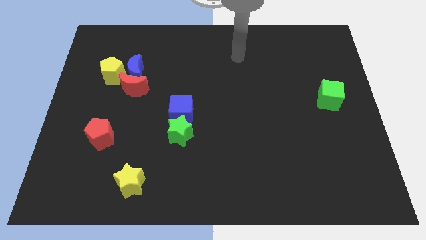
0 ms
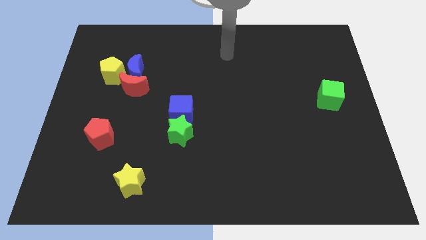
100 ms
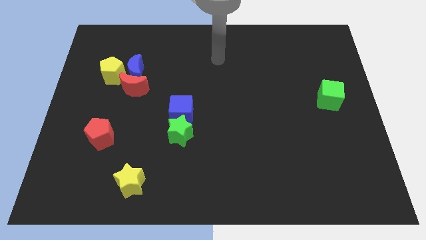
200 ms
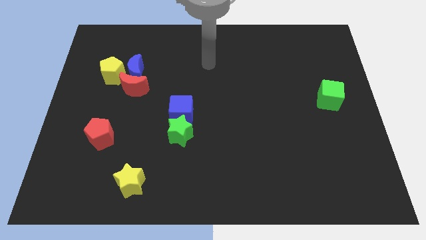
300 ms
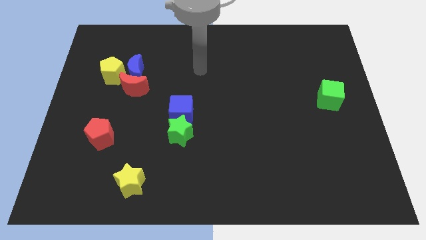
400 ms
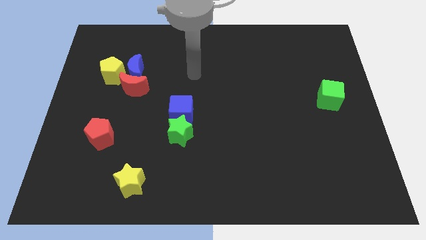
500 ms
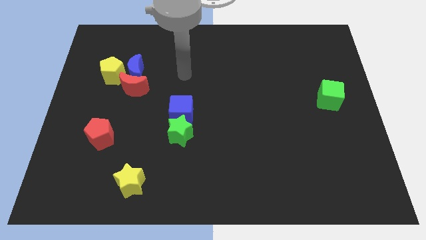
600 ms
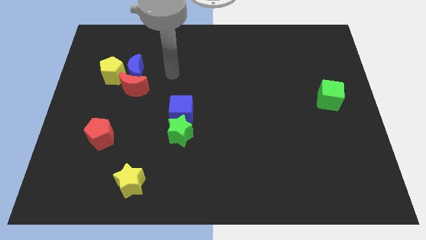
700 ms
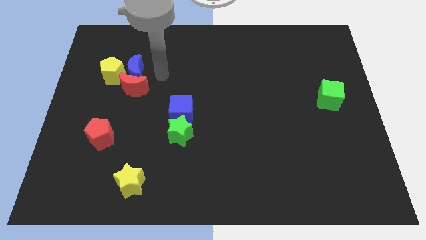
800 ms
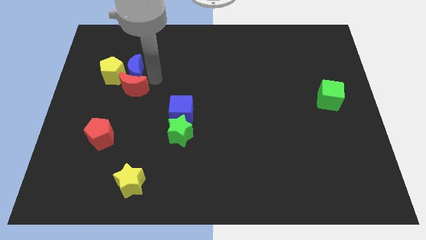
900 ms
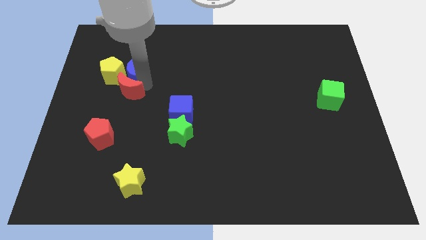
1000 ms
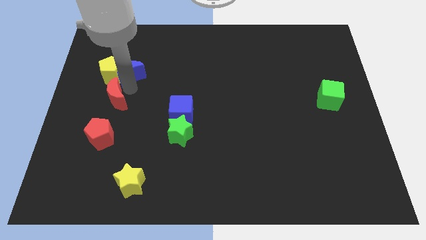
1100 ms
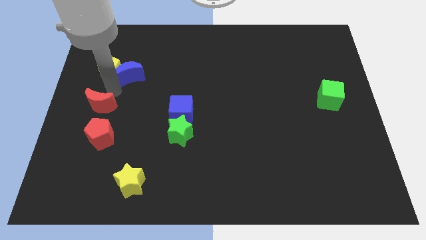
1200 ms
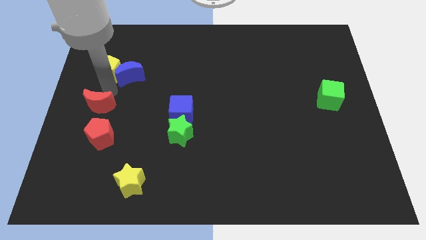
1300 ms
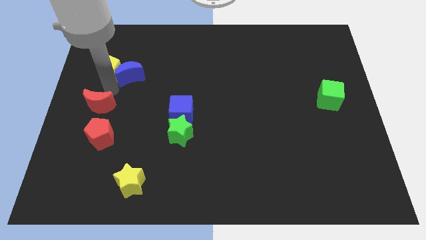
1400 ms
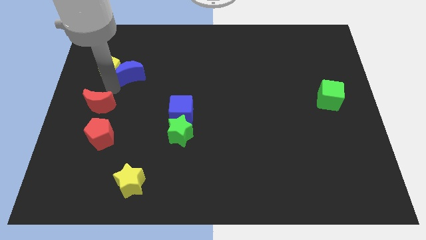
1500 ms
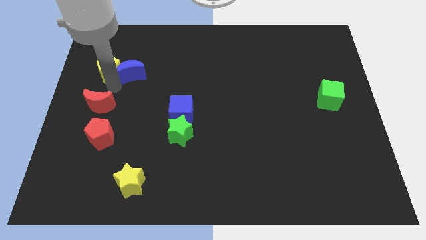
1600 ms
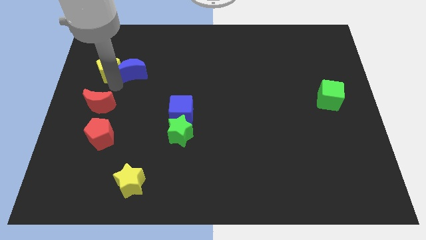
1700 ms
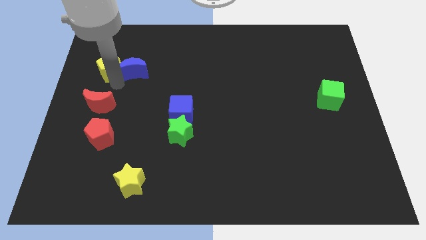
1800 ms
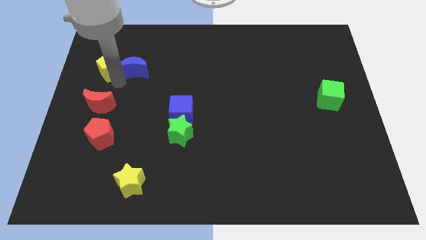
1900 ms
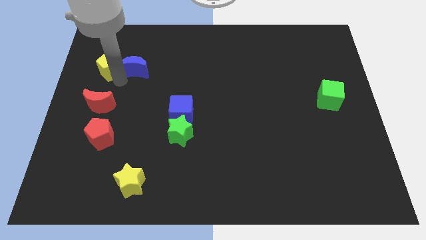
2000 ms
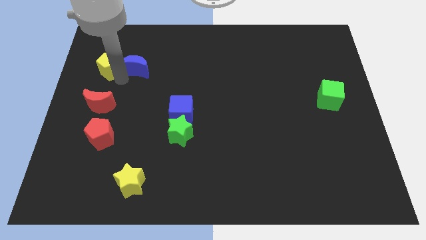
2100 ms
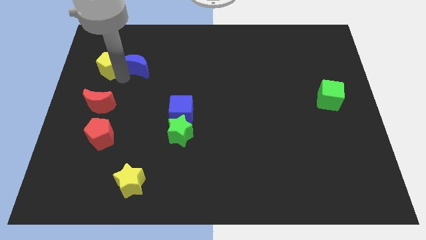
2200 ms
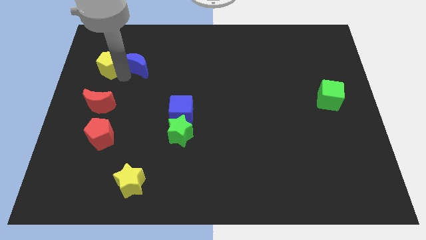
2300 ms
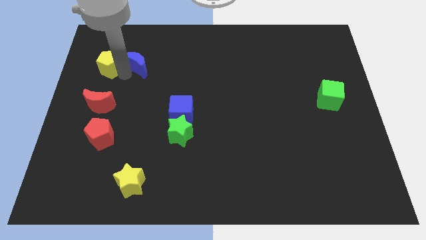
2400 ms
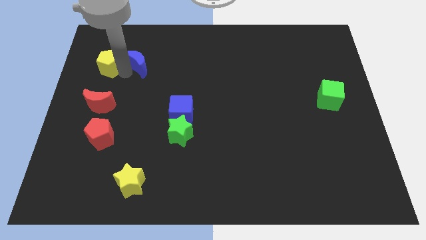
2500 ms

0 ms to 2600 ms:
move the blue moon away from the red moon and yellow pentagon

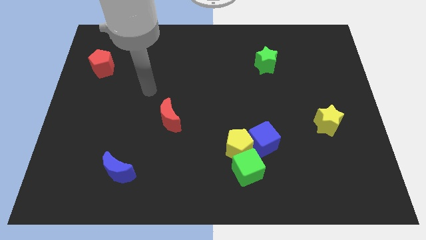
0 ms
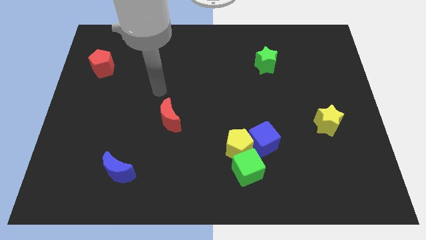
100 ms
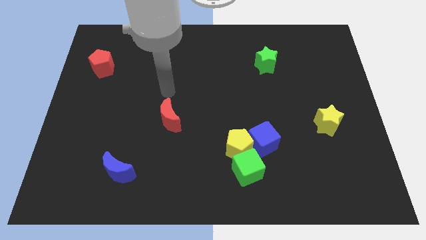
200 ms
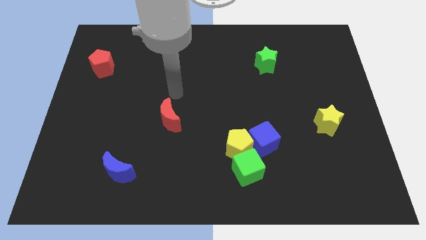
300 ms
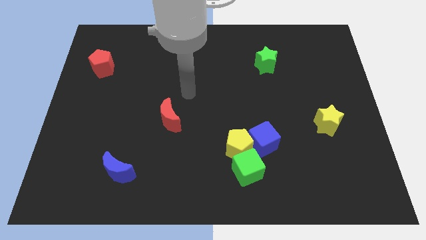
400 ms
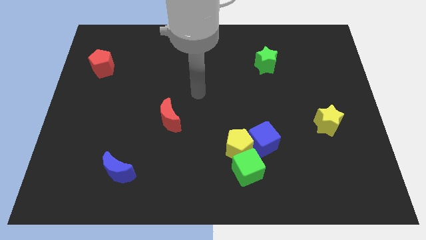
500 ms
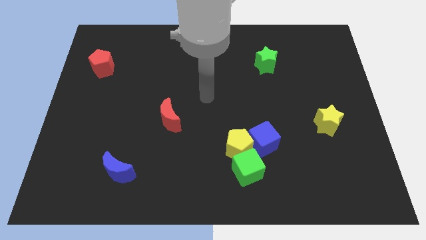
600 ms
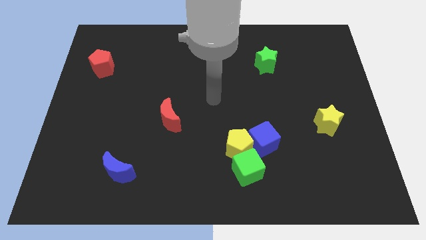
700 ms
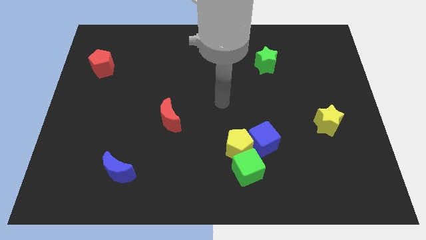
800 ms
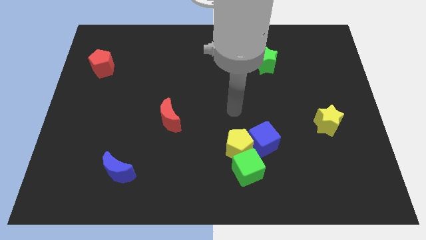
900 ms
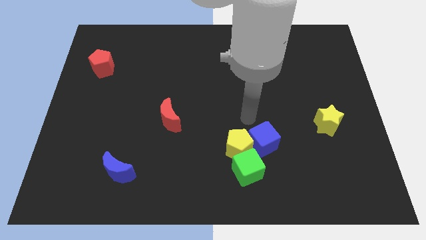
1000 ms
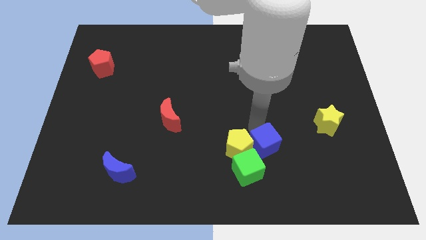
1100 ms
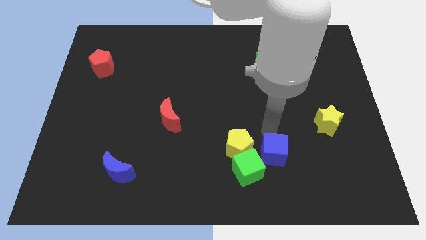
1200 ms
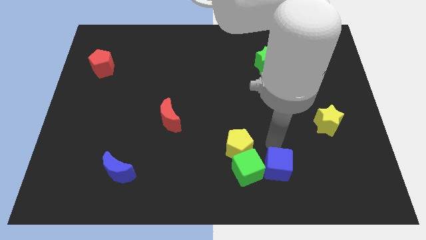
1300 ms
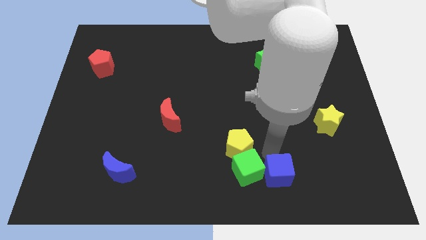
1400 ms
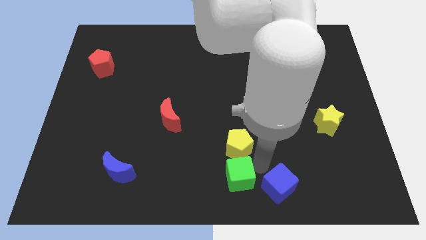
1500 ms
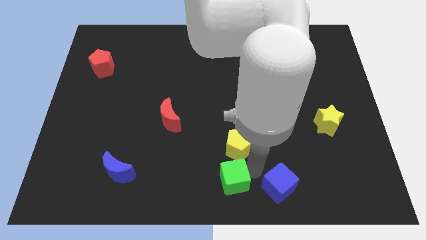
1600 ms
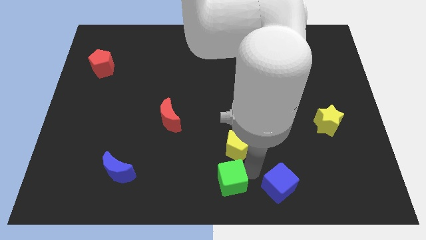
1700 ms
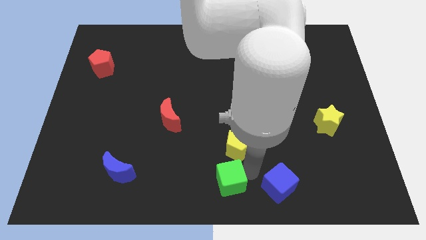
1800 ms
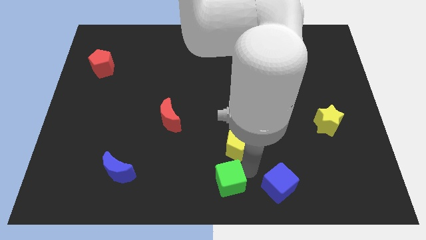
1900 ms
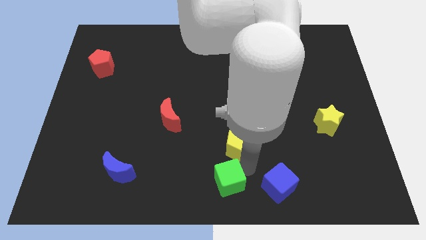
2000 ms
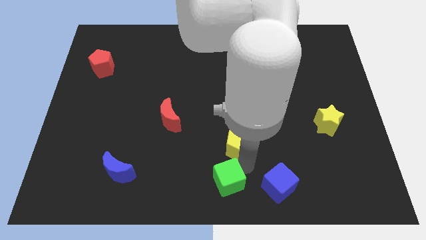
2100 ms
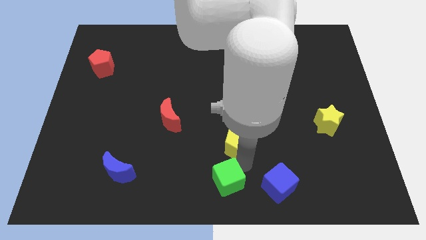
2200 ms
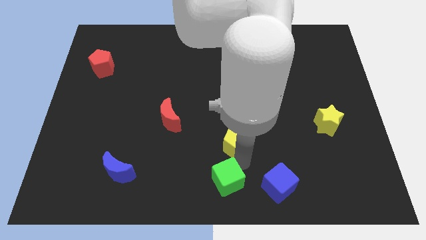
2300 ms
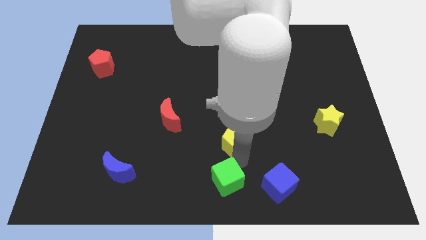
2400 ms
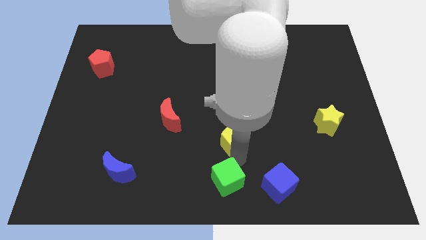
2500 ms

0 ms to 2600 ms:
pull the yellow pentagon apart from the green cube and blue cube

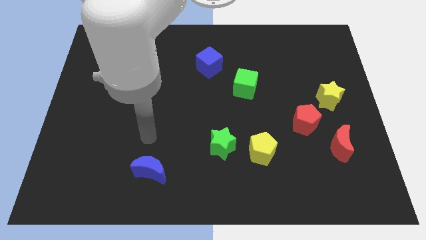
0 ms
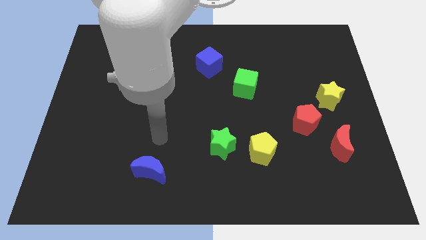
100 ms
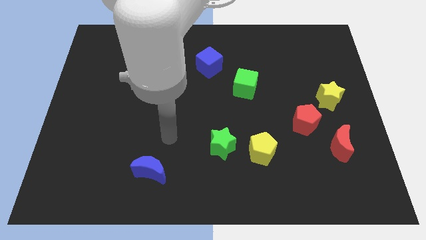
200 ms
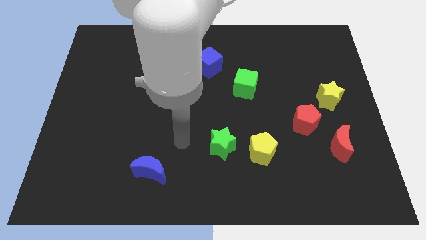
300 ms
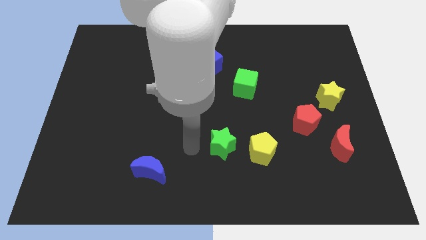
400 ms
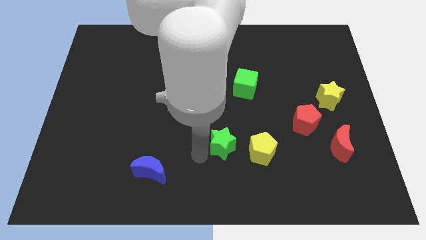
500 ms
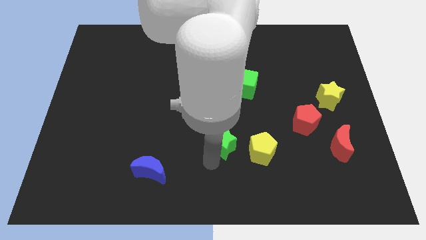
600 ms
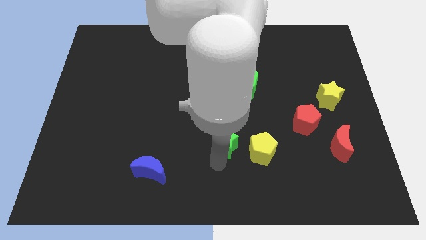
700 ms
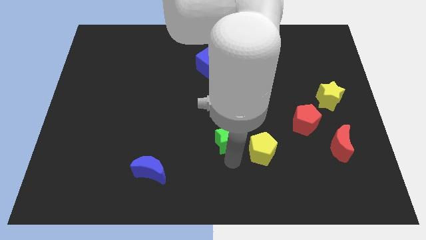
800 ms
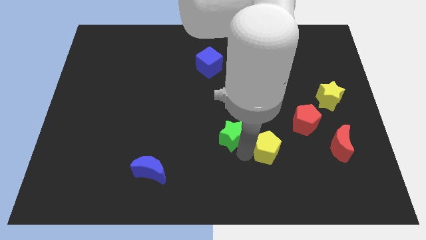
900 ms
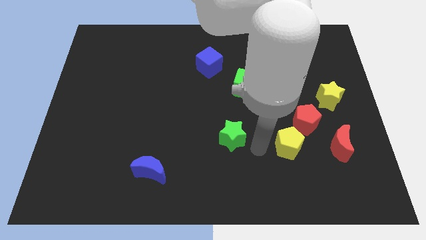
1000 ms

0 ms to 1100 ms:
separate the green star from the yellow pentagon

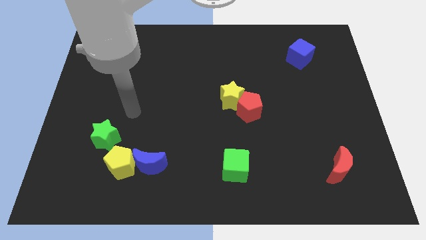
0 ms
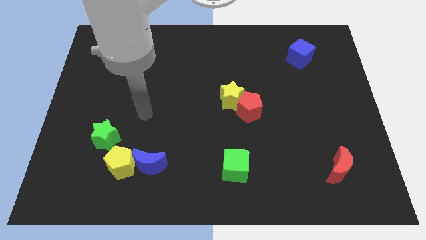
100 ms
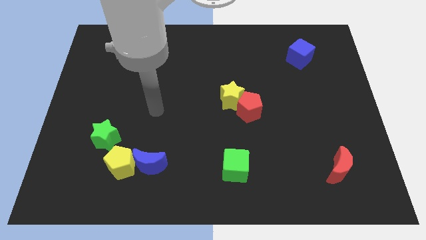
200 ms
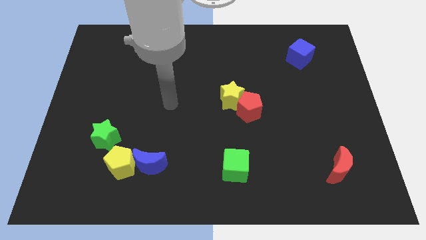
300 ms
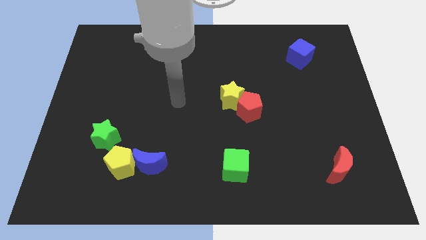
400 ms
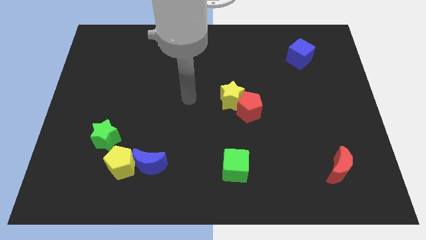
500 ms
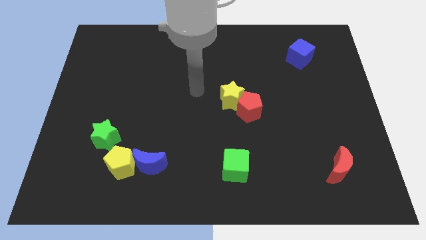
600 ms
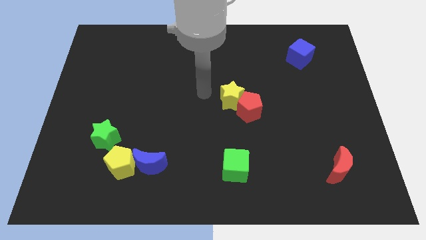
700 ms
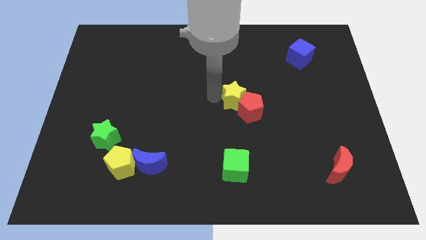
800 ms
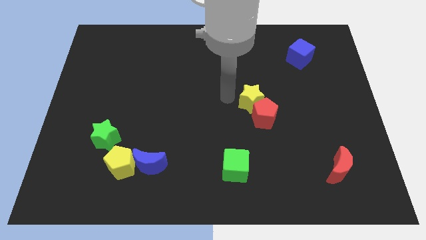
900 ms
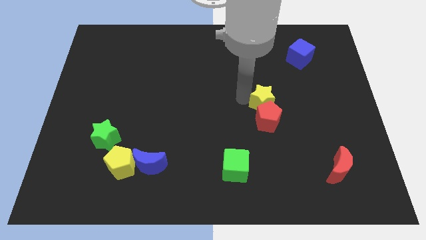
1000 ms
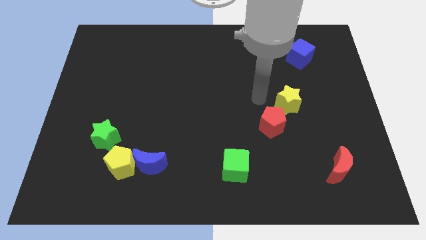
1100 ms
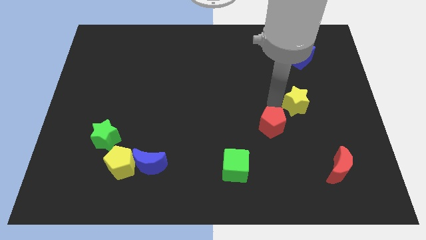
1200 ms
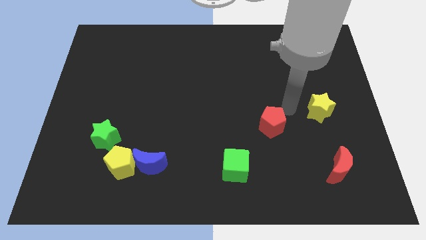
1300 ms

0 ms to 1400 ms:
move the red pentagon away from the yellow star

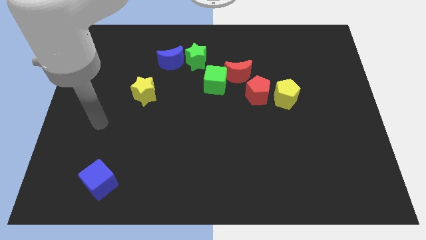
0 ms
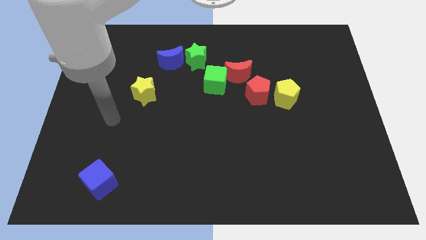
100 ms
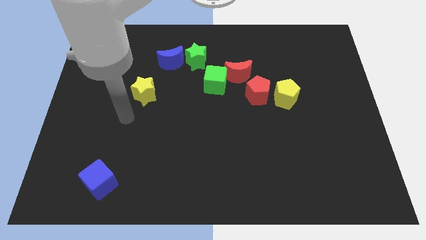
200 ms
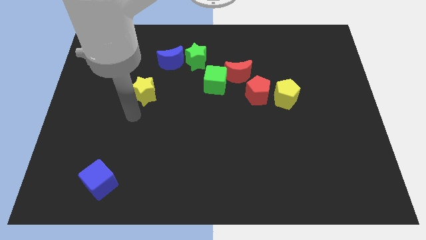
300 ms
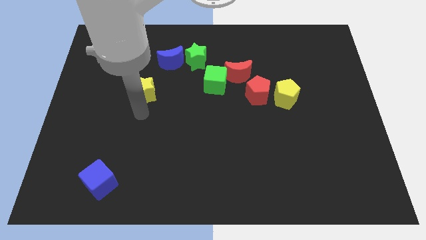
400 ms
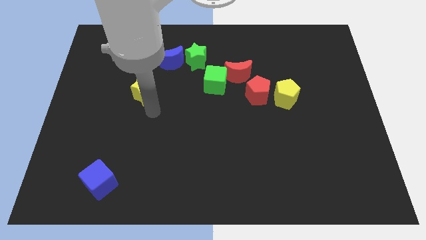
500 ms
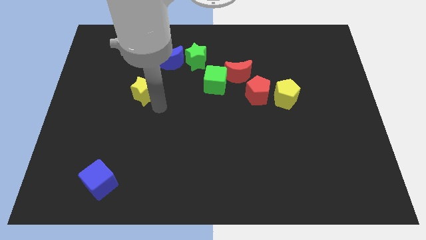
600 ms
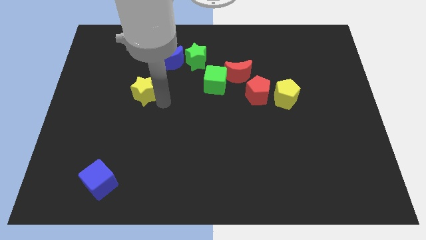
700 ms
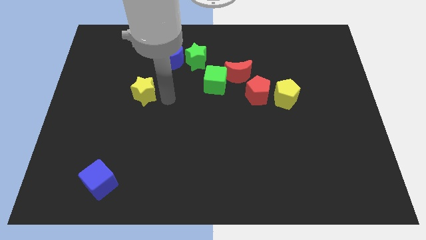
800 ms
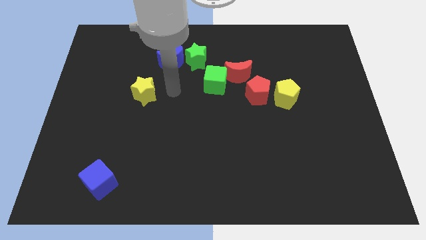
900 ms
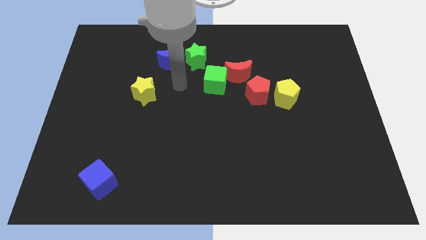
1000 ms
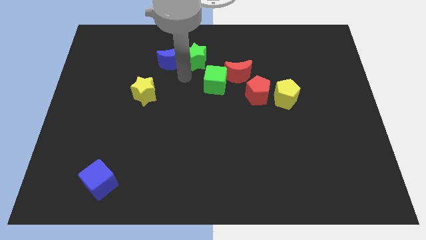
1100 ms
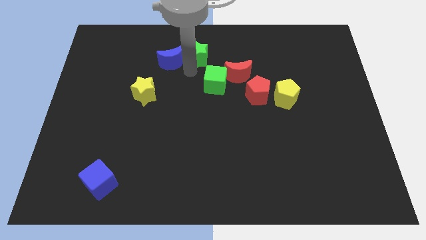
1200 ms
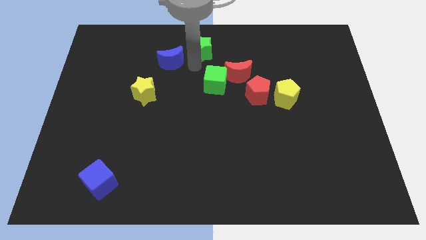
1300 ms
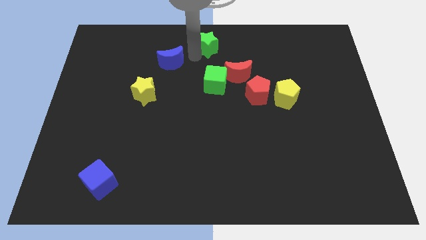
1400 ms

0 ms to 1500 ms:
separate the blue moon from the green star

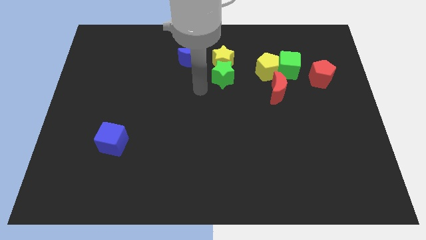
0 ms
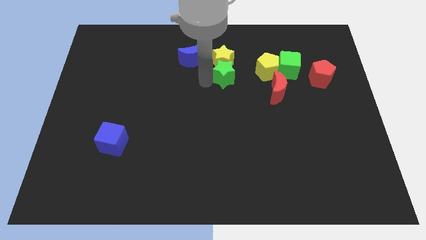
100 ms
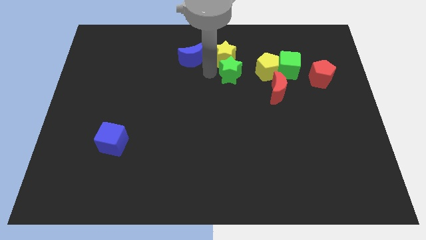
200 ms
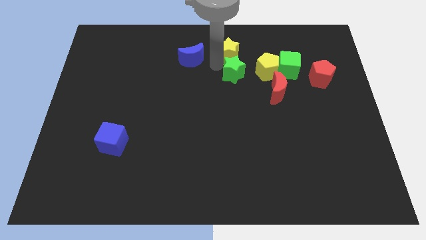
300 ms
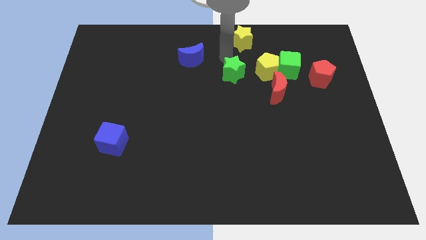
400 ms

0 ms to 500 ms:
move the green star away from the yellow star
